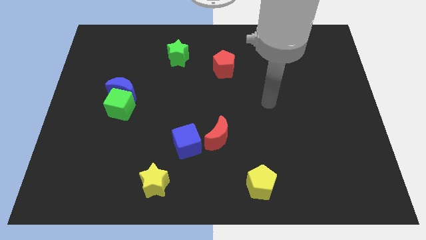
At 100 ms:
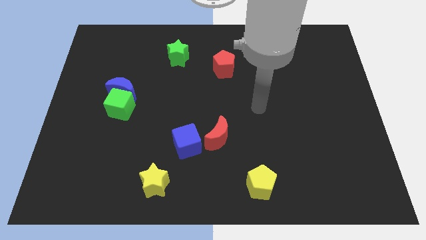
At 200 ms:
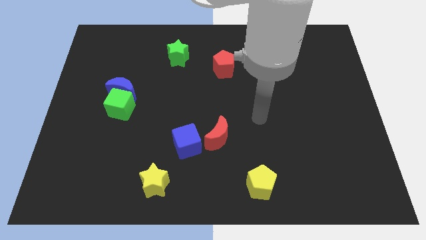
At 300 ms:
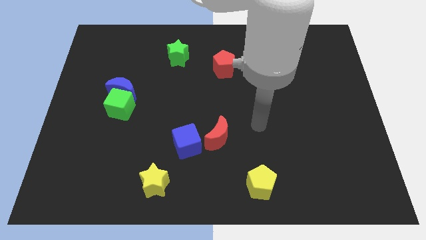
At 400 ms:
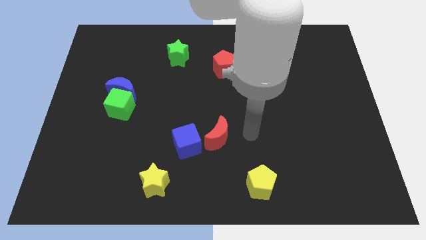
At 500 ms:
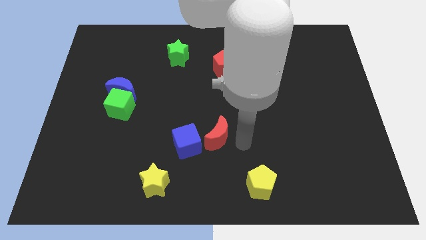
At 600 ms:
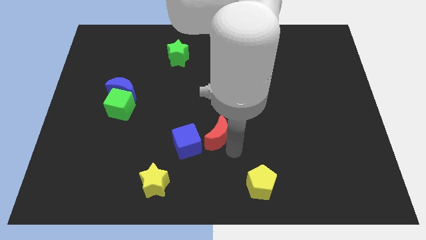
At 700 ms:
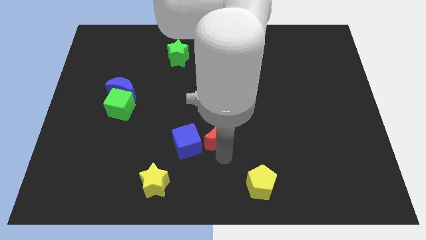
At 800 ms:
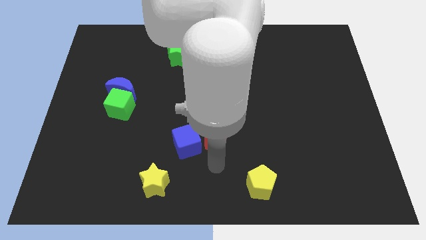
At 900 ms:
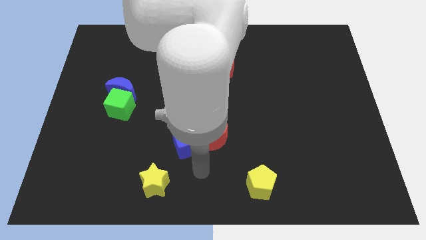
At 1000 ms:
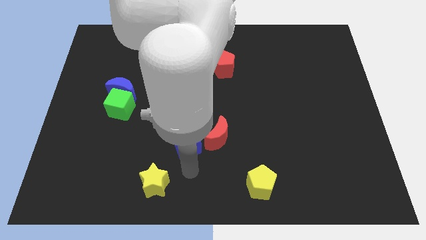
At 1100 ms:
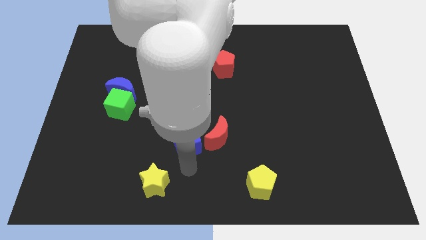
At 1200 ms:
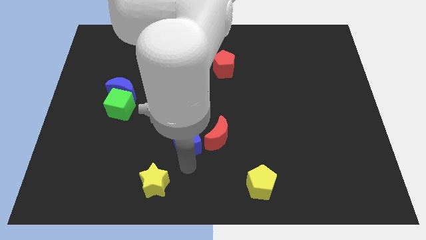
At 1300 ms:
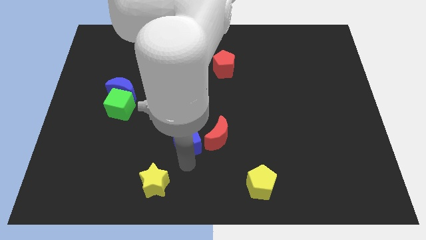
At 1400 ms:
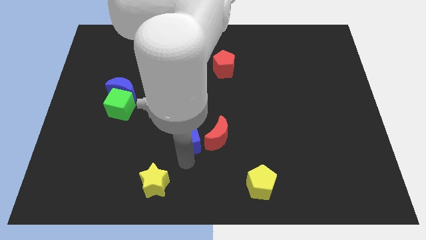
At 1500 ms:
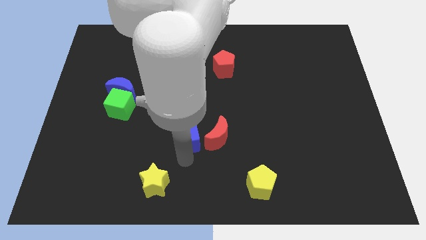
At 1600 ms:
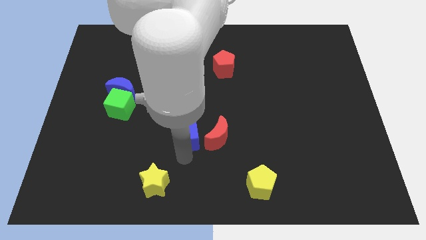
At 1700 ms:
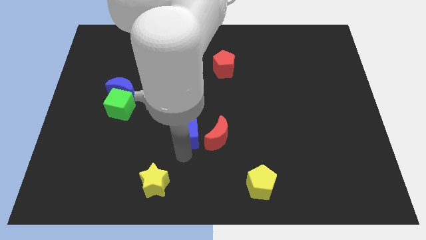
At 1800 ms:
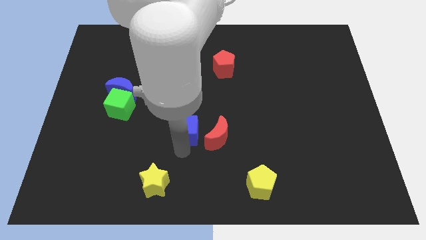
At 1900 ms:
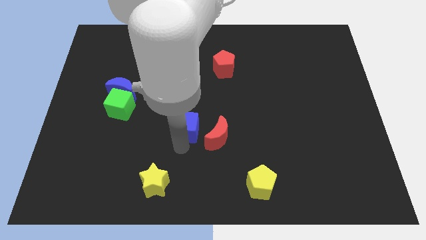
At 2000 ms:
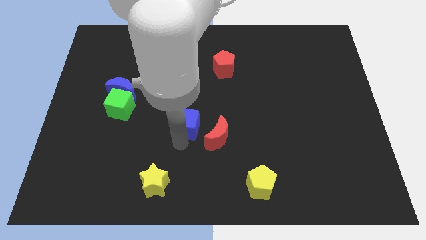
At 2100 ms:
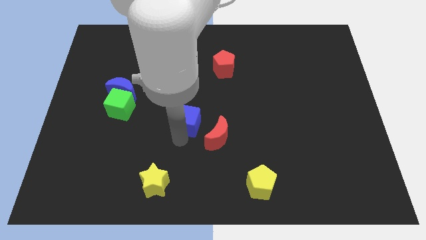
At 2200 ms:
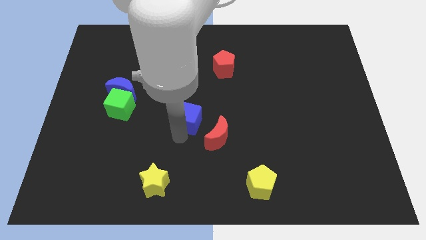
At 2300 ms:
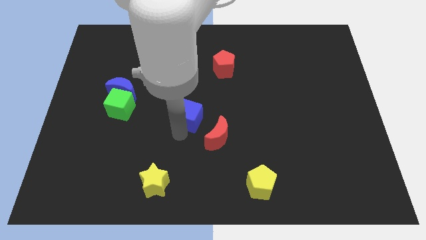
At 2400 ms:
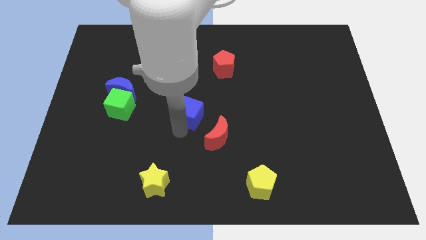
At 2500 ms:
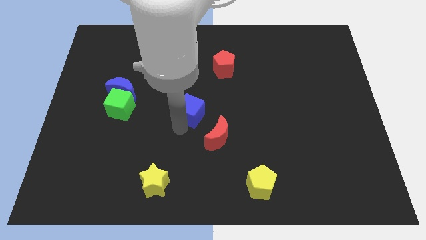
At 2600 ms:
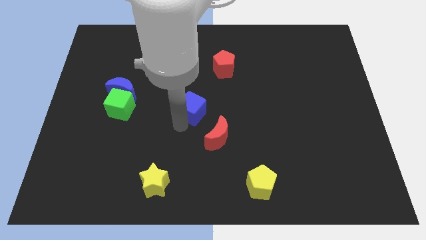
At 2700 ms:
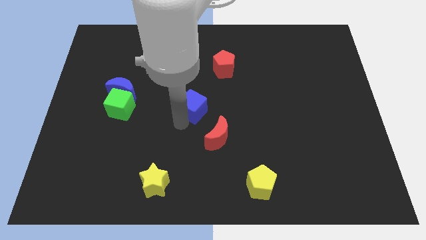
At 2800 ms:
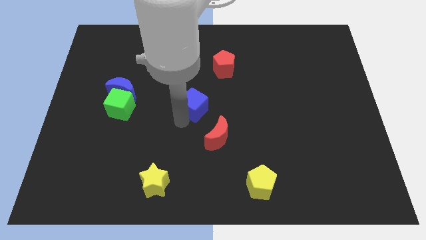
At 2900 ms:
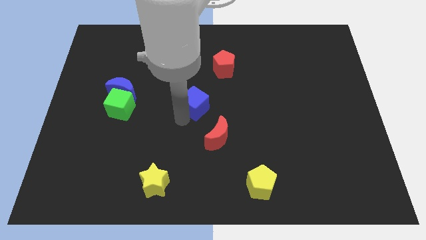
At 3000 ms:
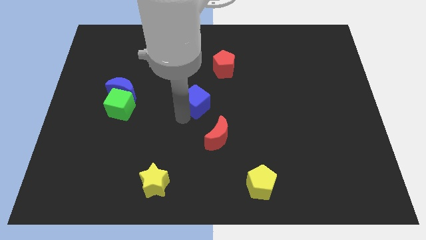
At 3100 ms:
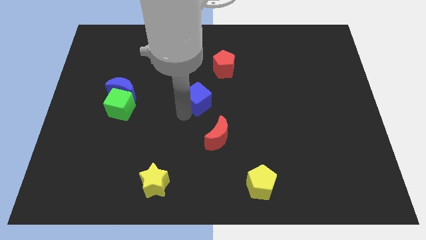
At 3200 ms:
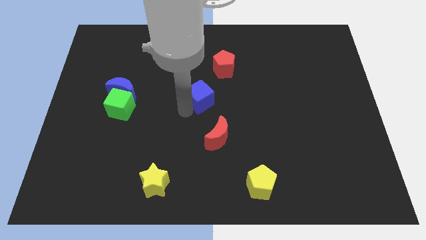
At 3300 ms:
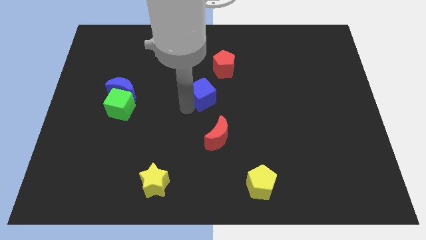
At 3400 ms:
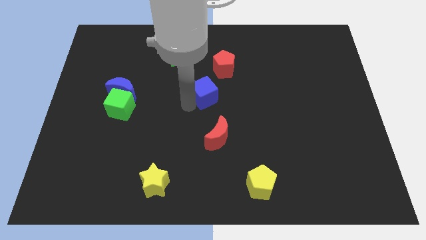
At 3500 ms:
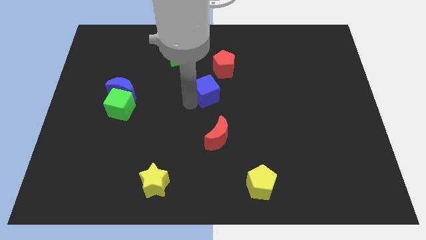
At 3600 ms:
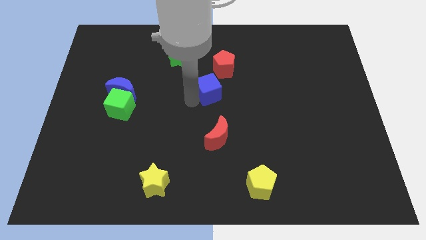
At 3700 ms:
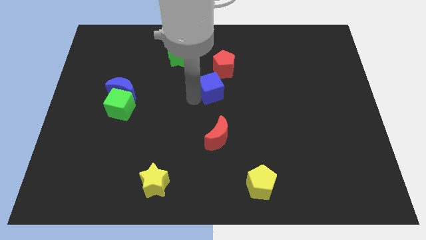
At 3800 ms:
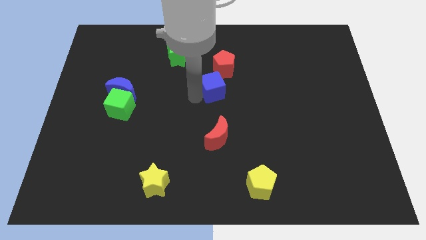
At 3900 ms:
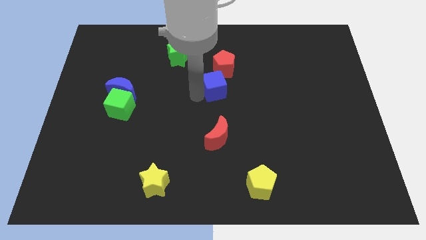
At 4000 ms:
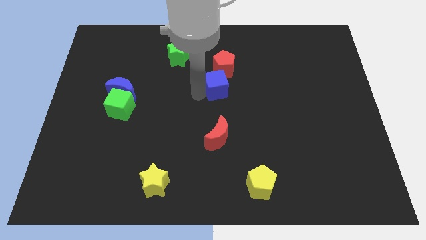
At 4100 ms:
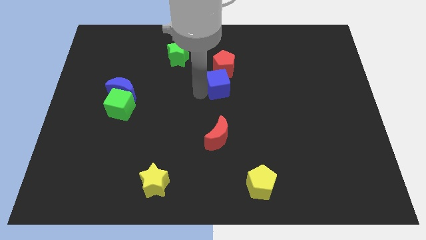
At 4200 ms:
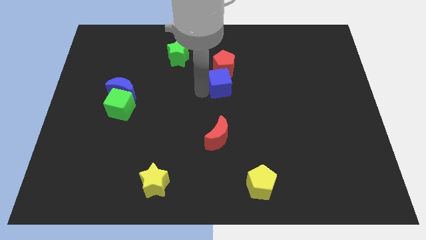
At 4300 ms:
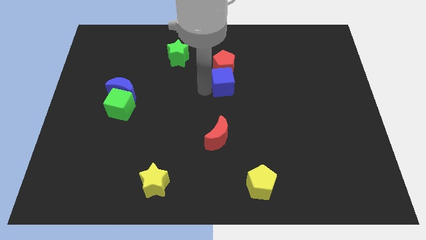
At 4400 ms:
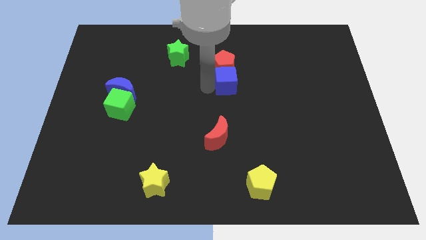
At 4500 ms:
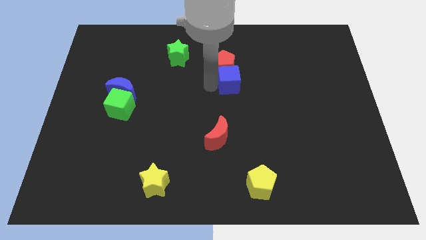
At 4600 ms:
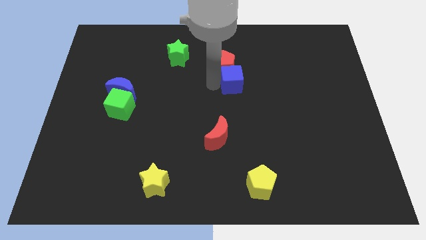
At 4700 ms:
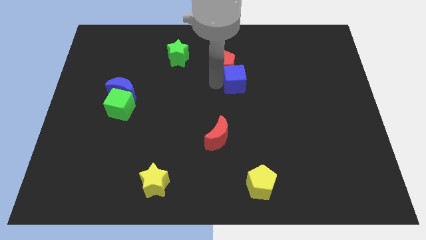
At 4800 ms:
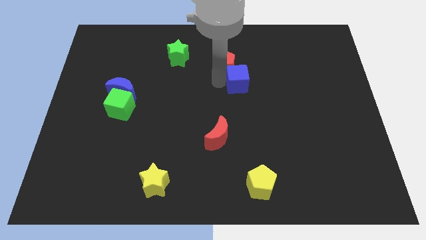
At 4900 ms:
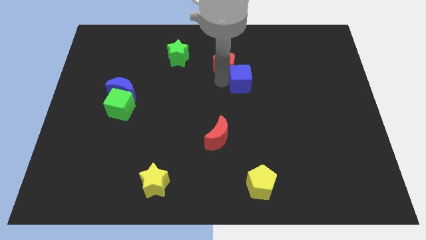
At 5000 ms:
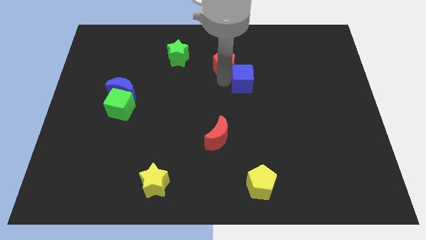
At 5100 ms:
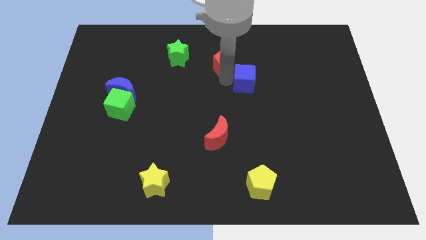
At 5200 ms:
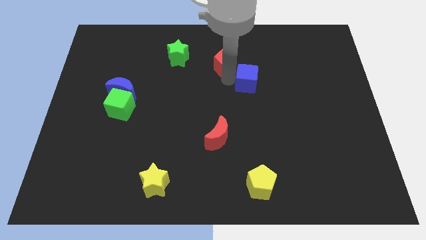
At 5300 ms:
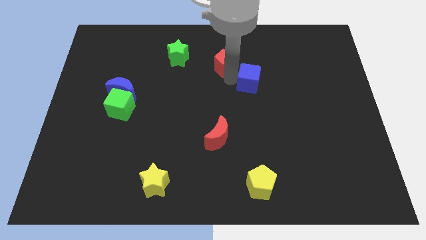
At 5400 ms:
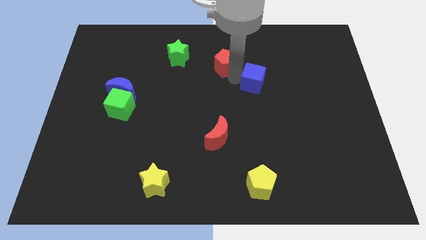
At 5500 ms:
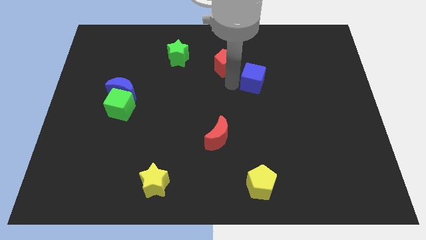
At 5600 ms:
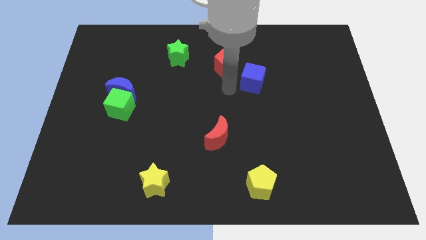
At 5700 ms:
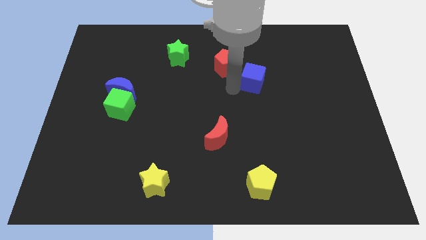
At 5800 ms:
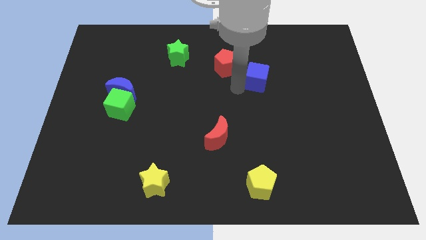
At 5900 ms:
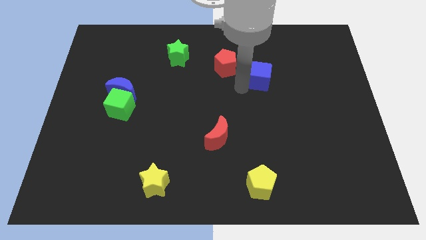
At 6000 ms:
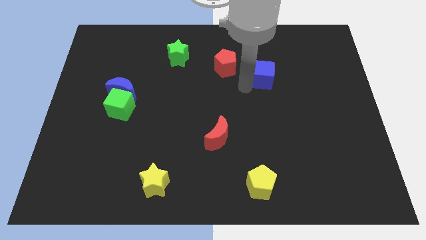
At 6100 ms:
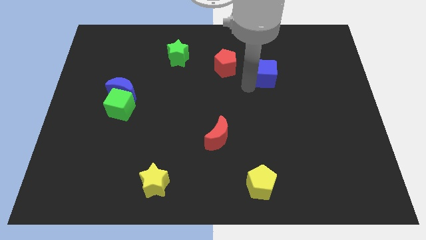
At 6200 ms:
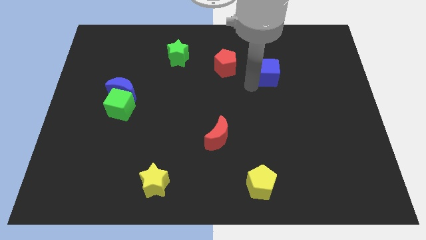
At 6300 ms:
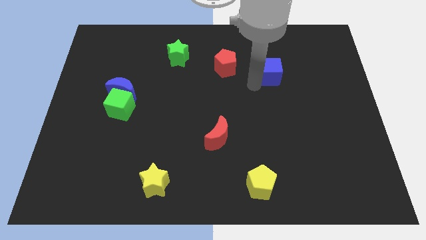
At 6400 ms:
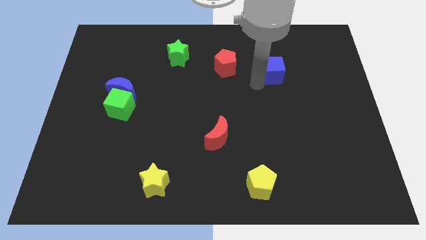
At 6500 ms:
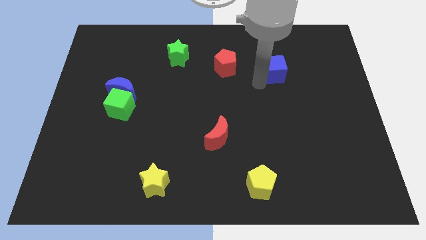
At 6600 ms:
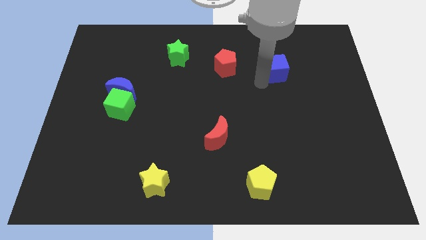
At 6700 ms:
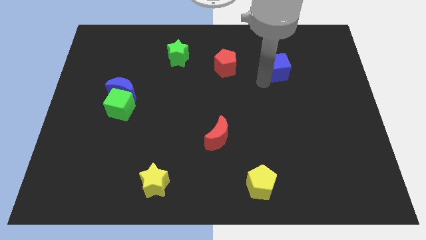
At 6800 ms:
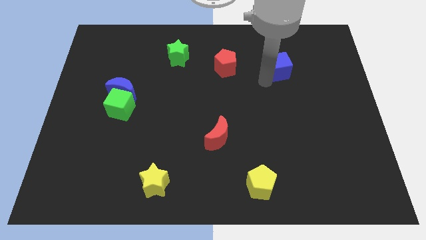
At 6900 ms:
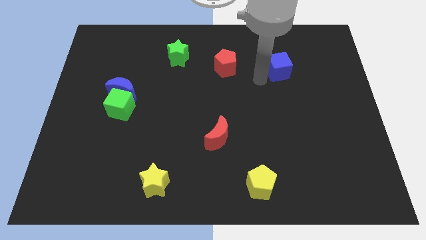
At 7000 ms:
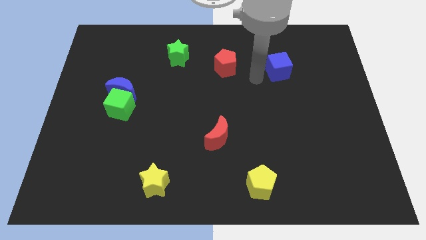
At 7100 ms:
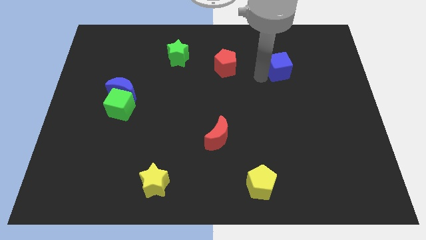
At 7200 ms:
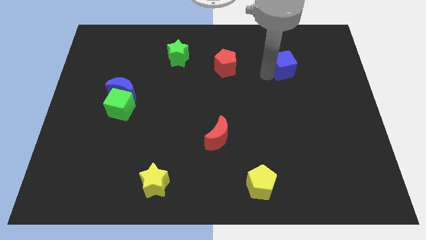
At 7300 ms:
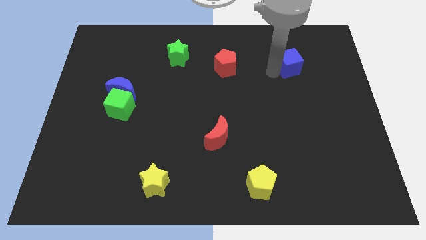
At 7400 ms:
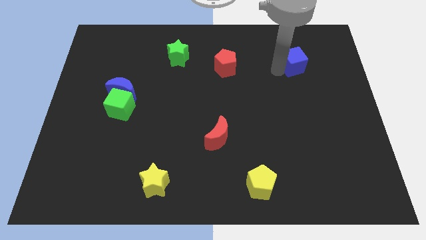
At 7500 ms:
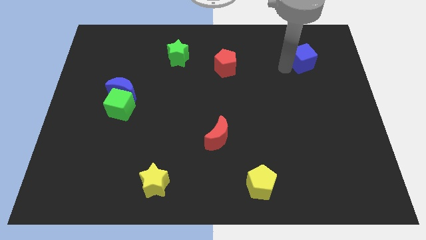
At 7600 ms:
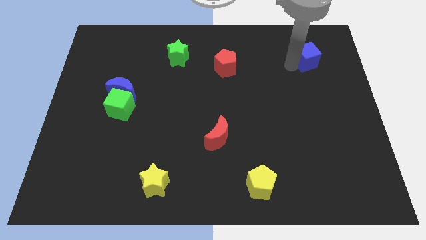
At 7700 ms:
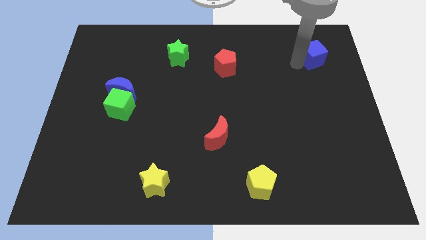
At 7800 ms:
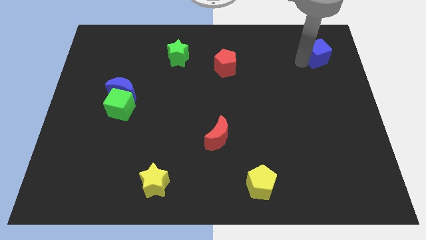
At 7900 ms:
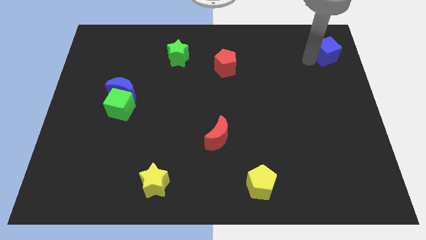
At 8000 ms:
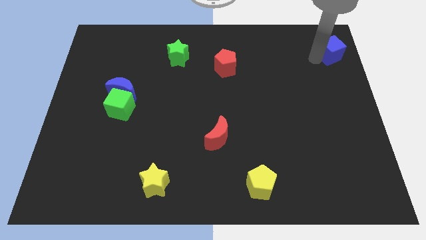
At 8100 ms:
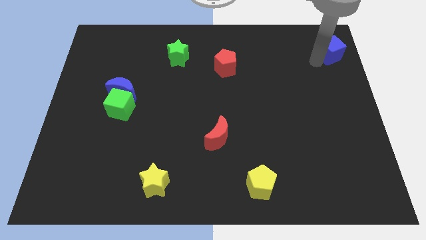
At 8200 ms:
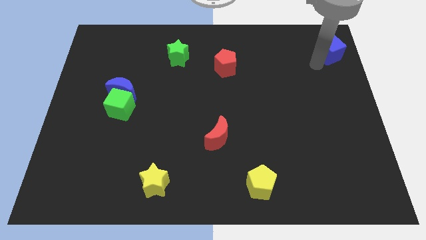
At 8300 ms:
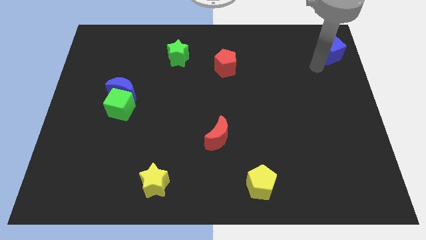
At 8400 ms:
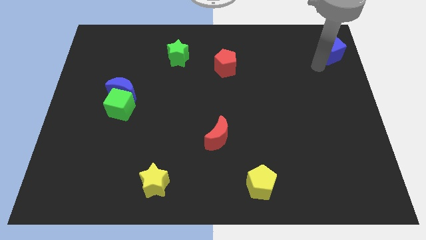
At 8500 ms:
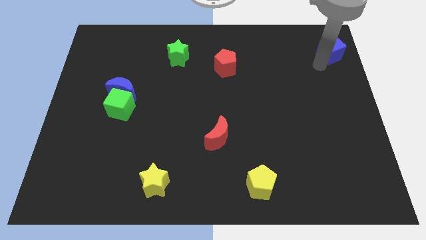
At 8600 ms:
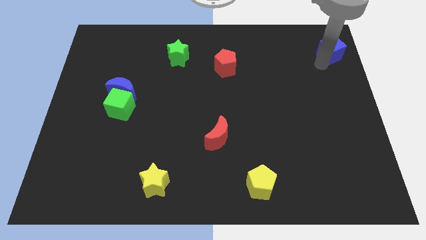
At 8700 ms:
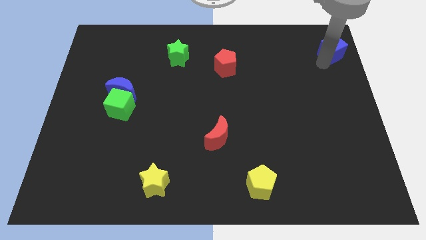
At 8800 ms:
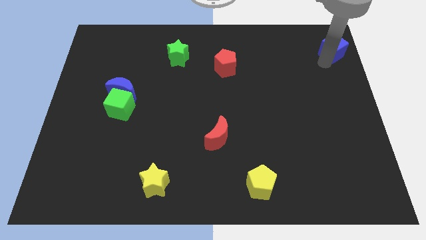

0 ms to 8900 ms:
push the blue cube to the top right corner
